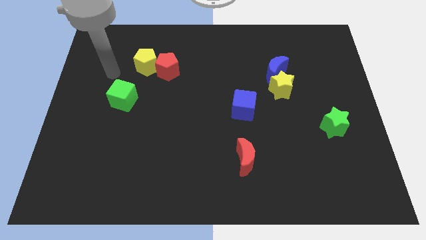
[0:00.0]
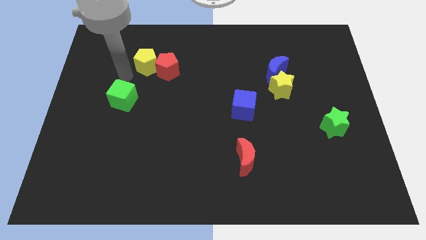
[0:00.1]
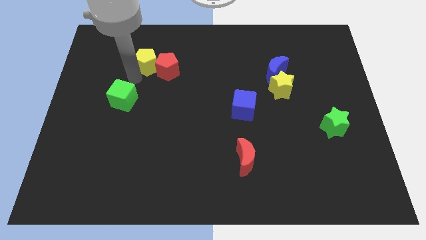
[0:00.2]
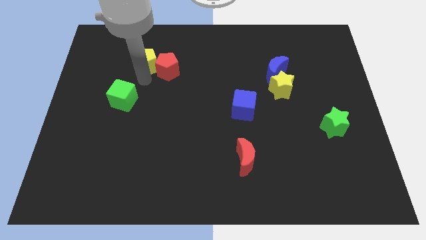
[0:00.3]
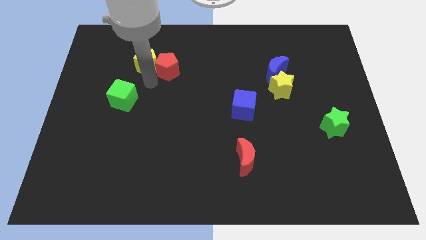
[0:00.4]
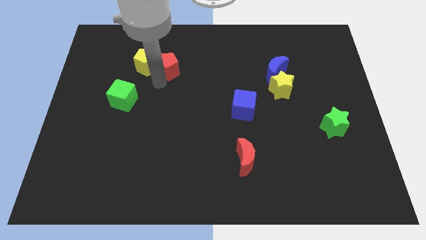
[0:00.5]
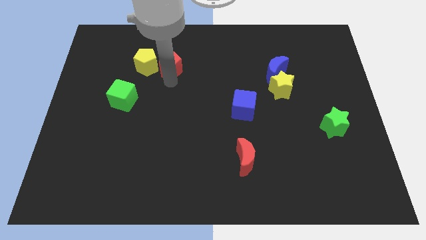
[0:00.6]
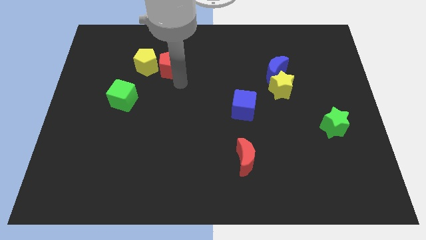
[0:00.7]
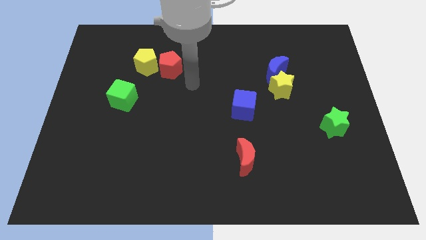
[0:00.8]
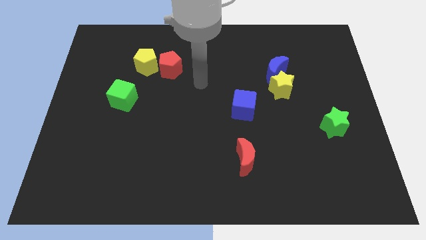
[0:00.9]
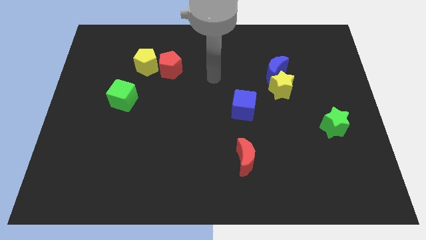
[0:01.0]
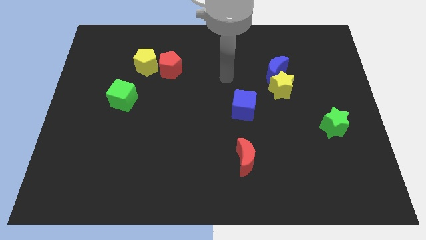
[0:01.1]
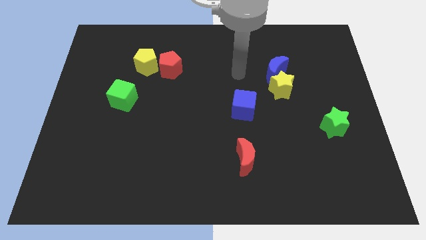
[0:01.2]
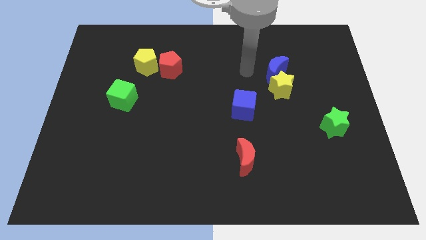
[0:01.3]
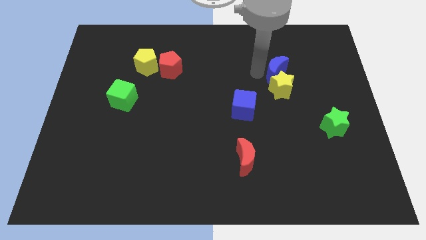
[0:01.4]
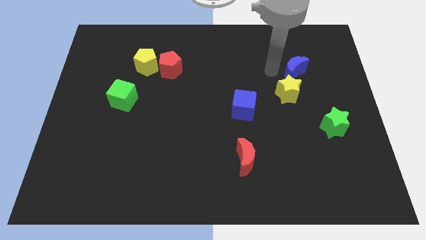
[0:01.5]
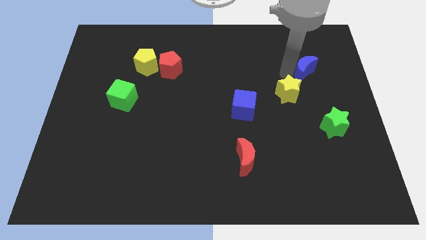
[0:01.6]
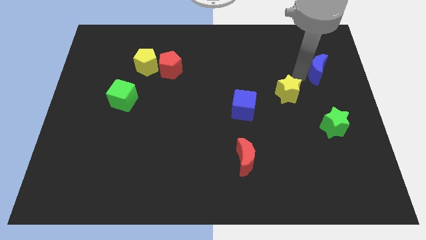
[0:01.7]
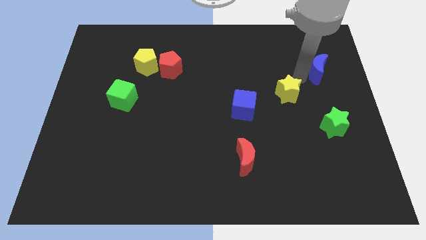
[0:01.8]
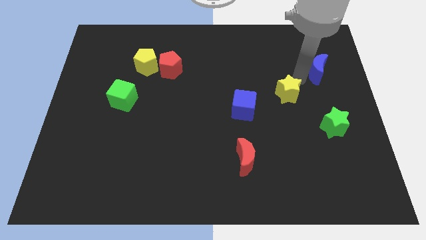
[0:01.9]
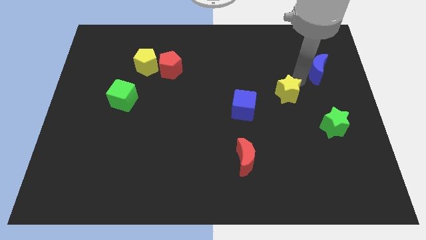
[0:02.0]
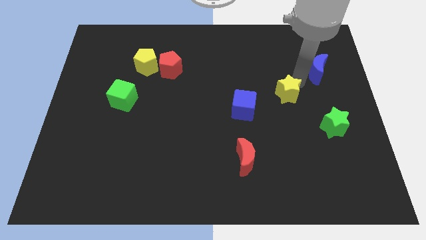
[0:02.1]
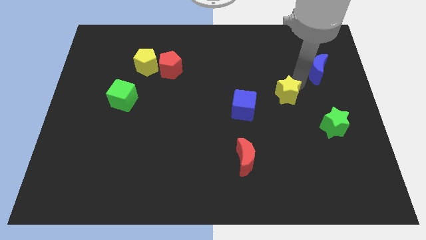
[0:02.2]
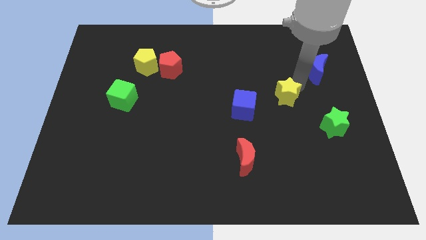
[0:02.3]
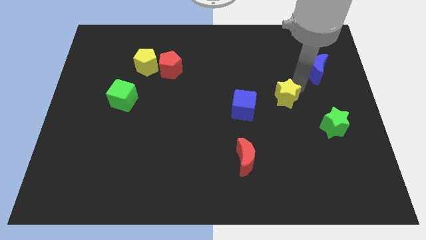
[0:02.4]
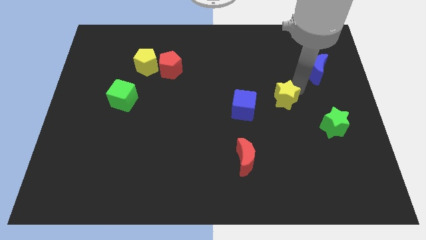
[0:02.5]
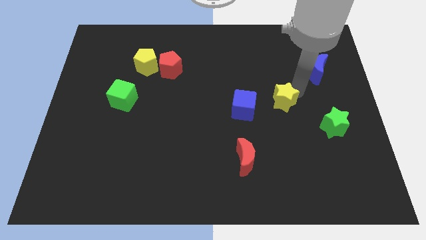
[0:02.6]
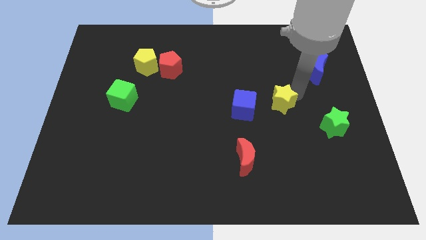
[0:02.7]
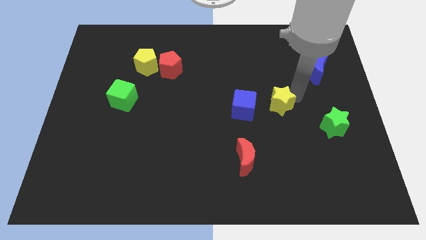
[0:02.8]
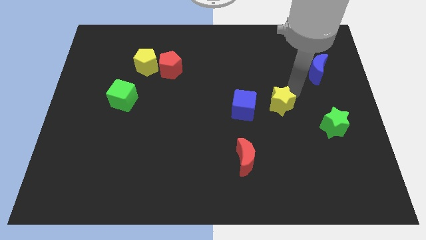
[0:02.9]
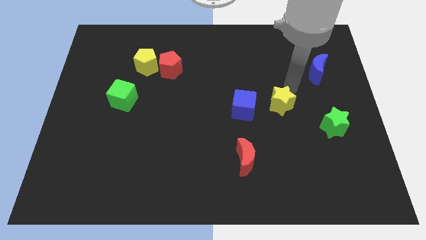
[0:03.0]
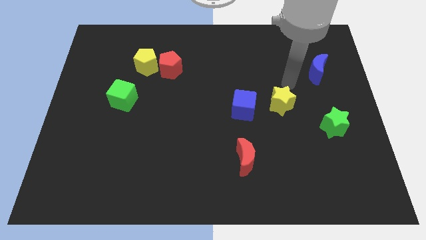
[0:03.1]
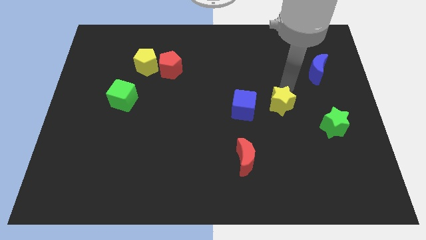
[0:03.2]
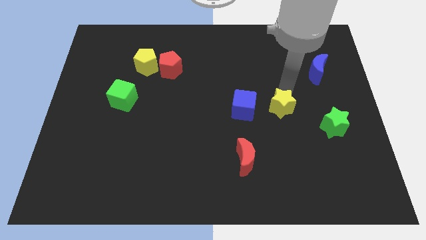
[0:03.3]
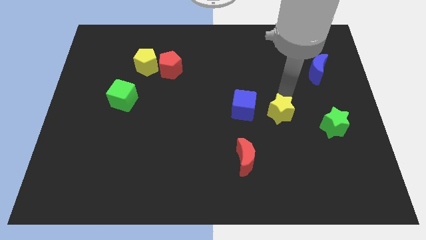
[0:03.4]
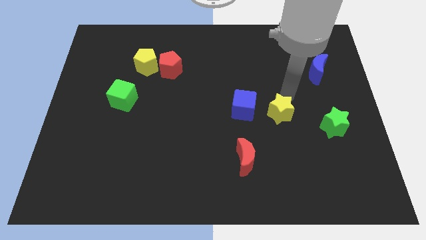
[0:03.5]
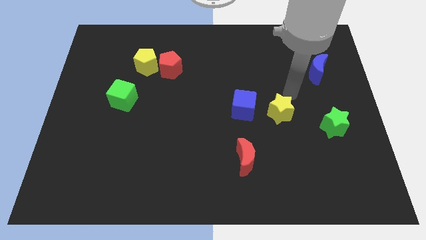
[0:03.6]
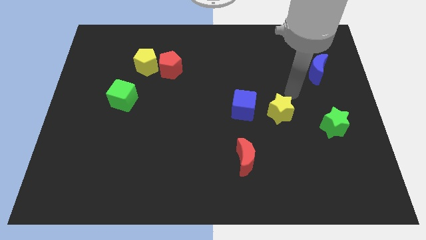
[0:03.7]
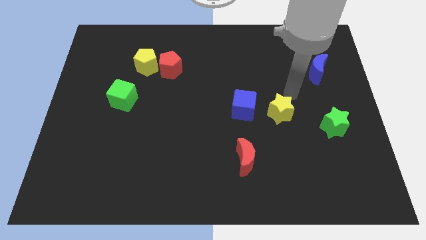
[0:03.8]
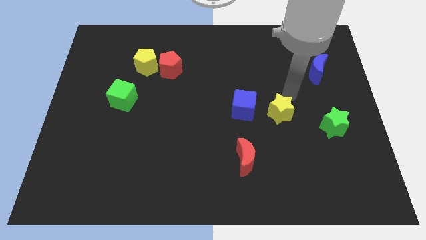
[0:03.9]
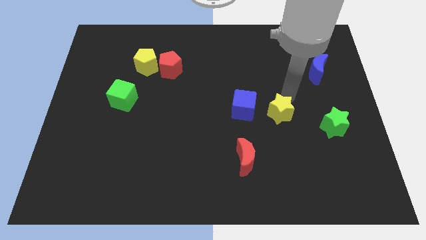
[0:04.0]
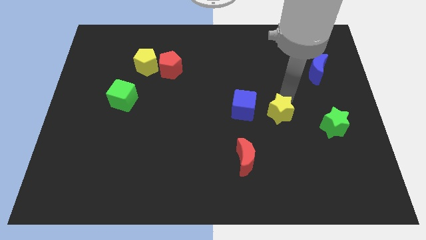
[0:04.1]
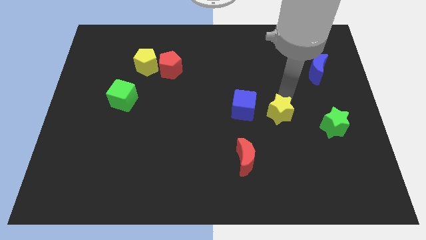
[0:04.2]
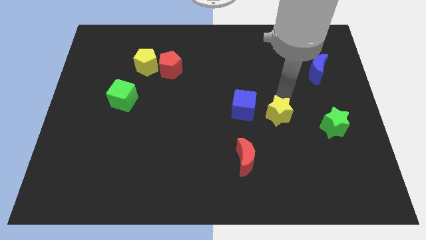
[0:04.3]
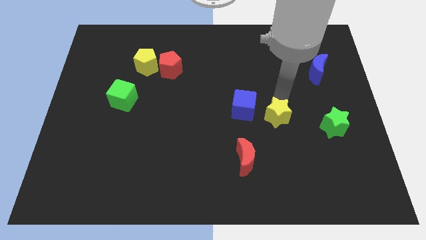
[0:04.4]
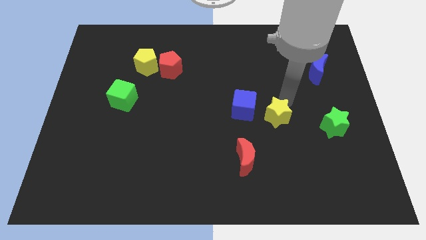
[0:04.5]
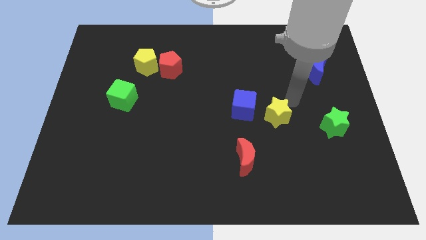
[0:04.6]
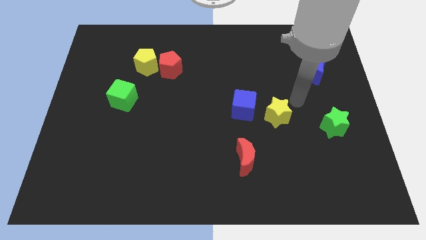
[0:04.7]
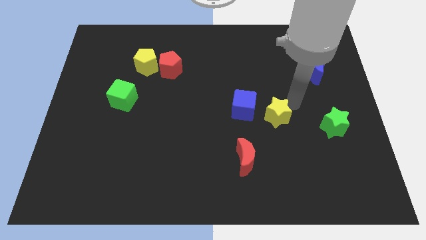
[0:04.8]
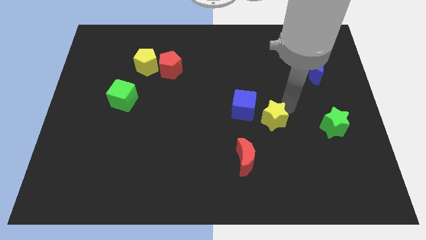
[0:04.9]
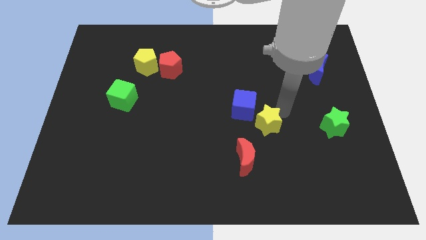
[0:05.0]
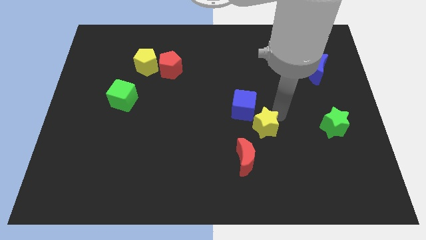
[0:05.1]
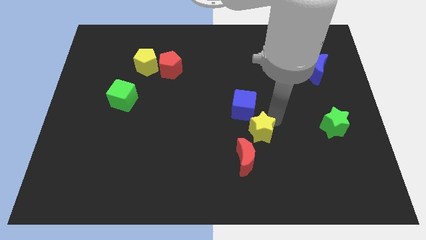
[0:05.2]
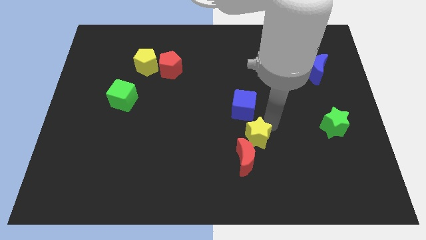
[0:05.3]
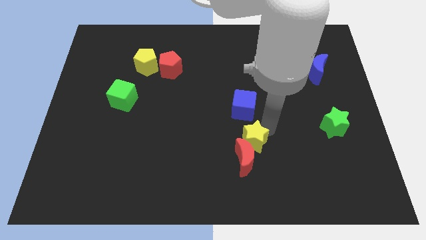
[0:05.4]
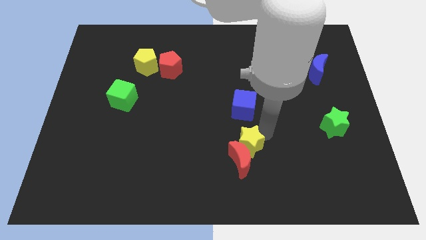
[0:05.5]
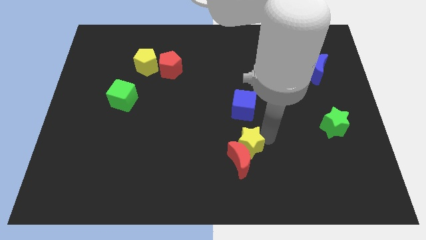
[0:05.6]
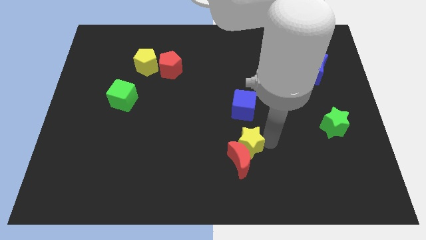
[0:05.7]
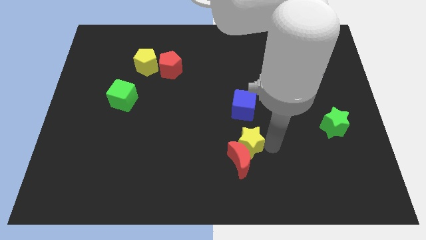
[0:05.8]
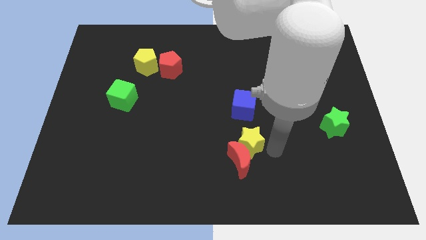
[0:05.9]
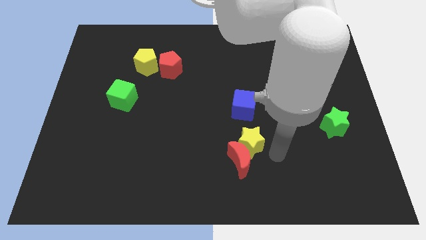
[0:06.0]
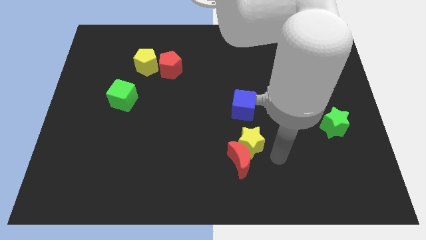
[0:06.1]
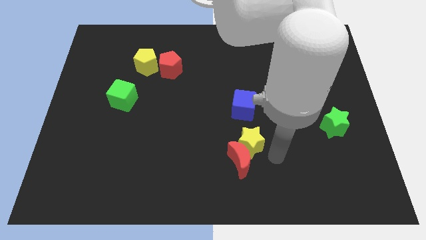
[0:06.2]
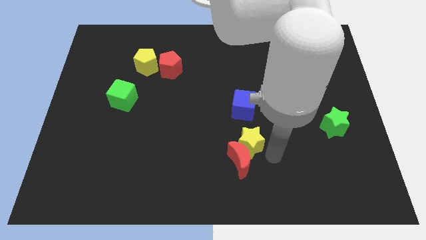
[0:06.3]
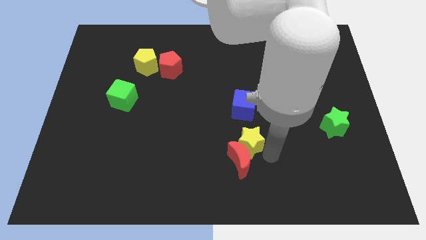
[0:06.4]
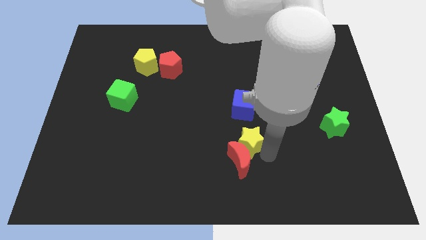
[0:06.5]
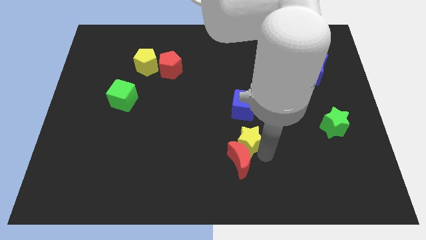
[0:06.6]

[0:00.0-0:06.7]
move the yellow star to the top left side of the red moon

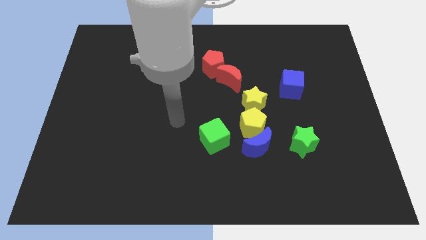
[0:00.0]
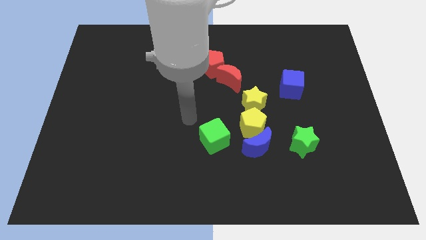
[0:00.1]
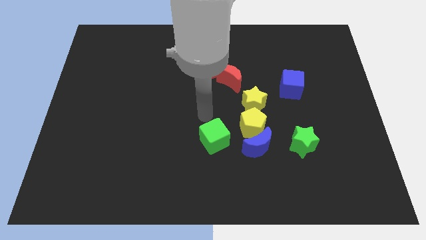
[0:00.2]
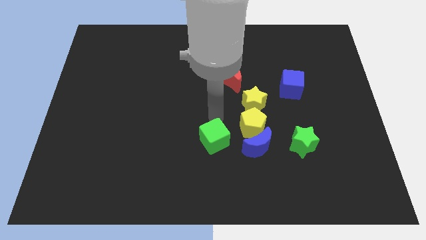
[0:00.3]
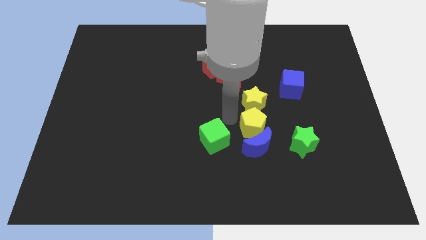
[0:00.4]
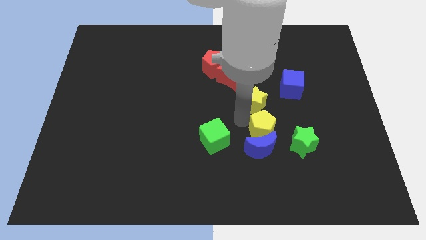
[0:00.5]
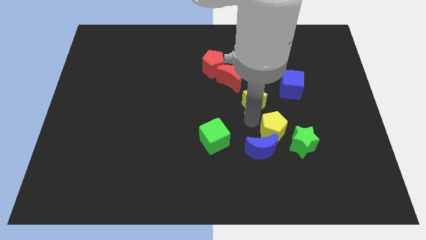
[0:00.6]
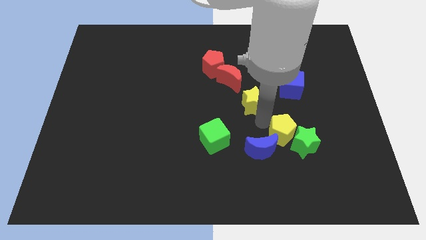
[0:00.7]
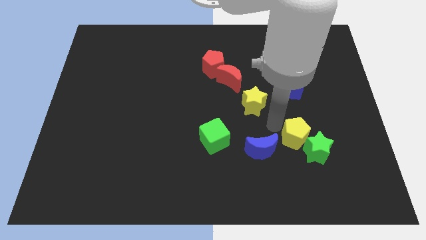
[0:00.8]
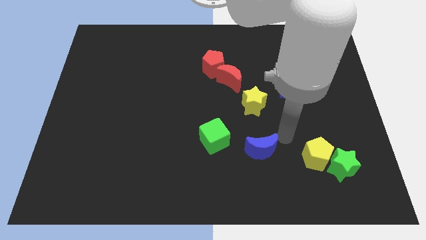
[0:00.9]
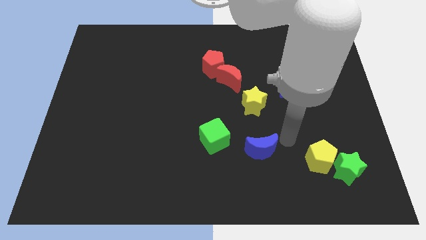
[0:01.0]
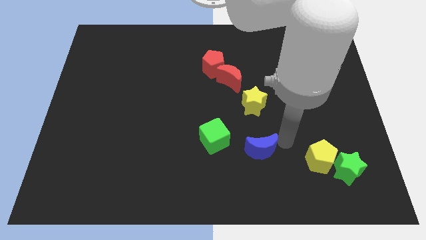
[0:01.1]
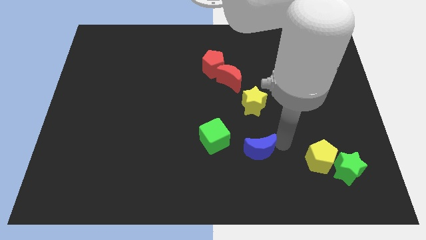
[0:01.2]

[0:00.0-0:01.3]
push the blue moon to the bottom right side of the green cube
